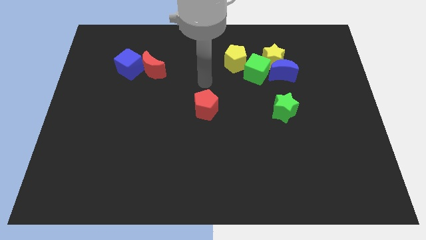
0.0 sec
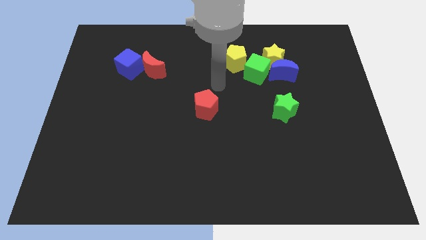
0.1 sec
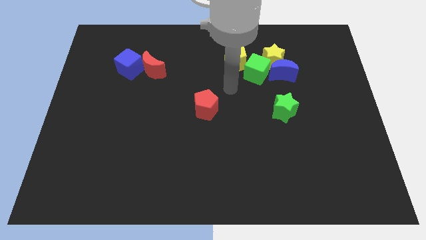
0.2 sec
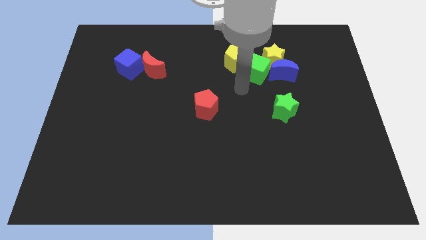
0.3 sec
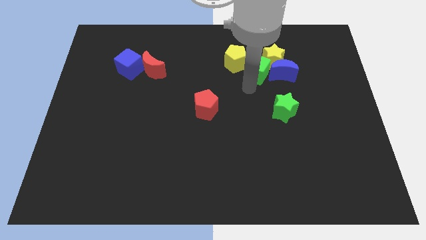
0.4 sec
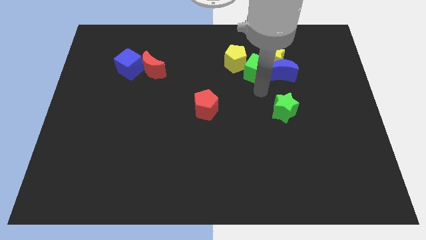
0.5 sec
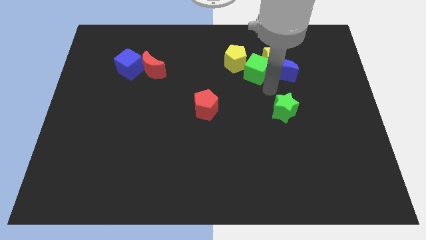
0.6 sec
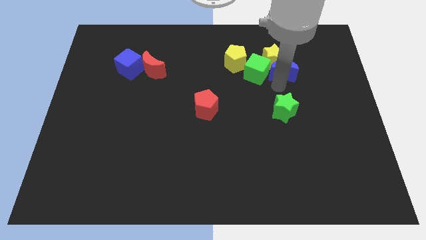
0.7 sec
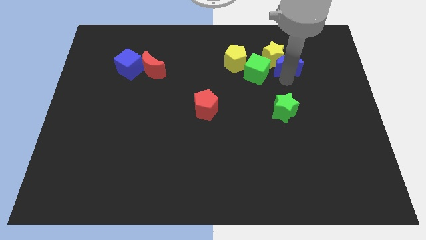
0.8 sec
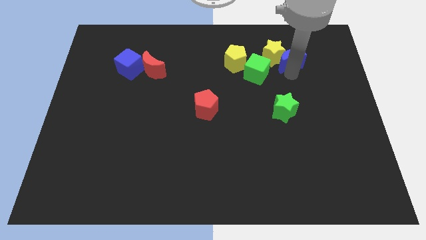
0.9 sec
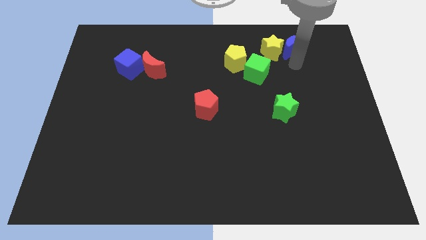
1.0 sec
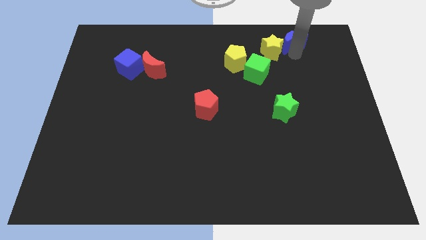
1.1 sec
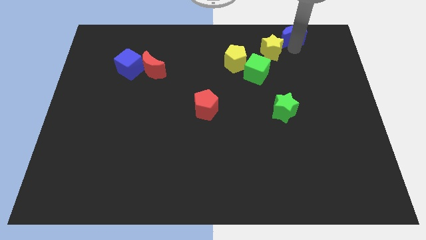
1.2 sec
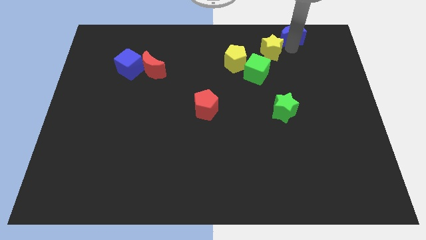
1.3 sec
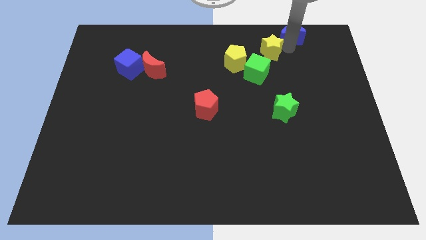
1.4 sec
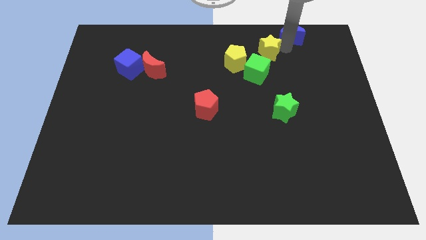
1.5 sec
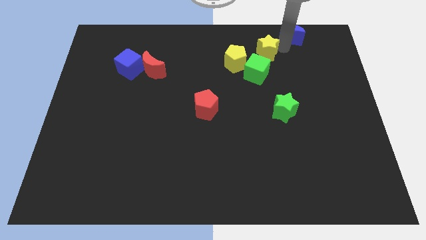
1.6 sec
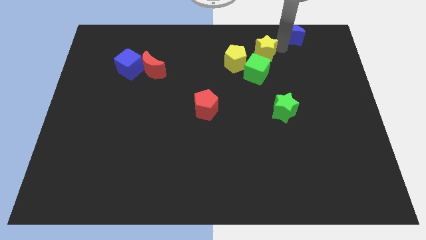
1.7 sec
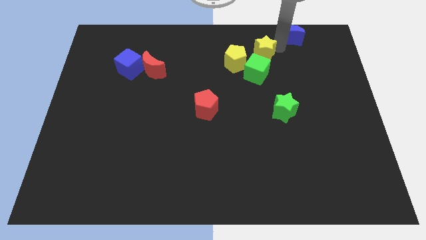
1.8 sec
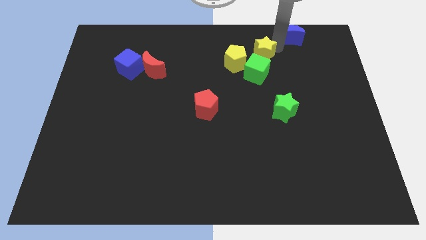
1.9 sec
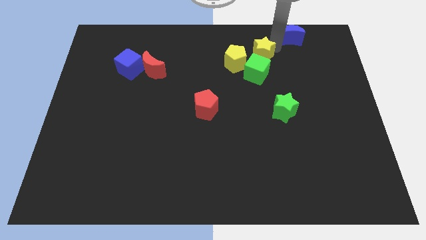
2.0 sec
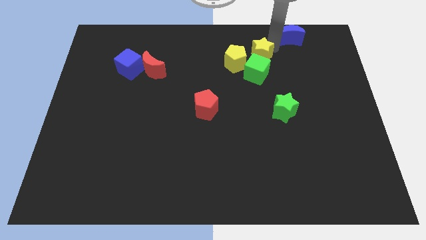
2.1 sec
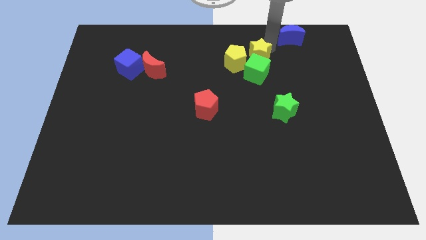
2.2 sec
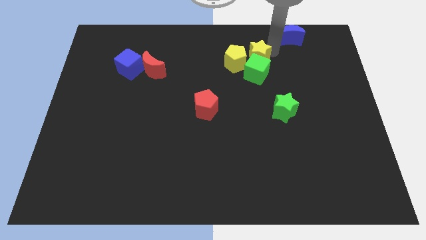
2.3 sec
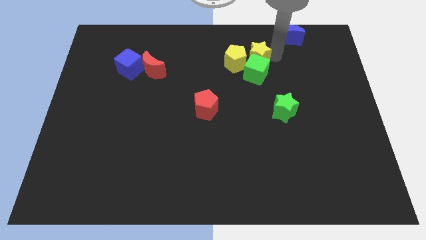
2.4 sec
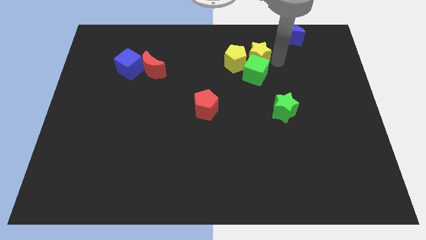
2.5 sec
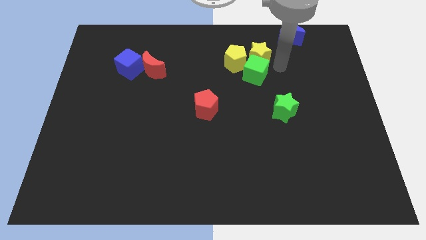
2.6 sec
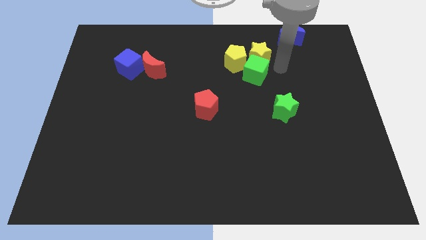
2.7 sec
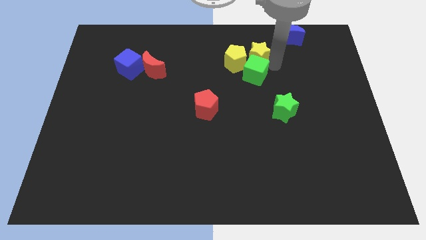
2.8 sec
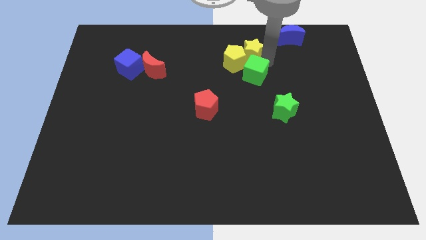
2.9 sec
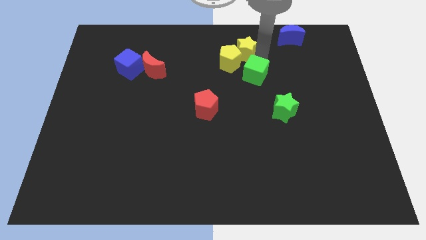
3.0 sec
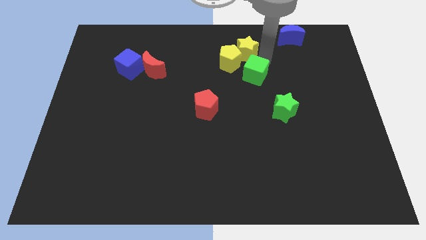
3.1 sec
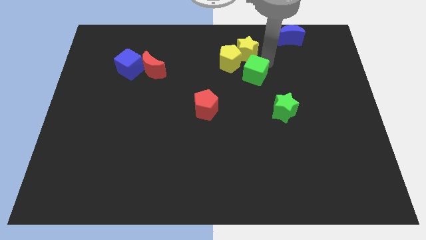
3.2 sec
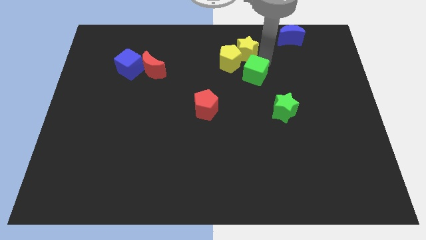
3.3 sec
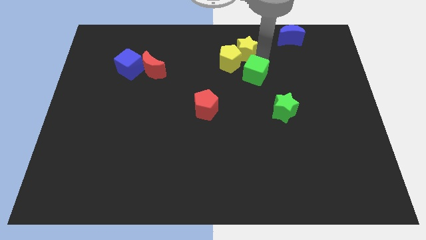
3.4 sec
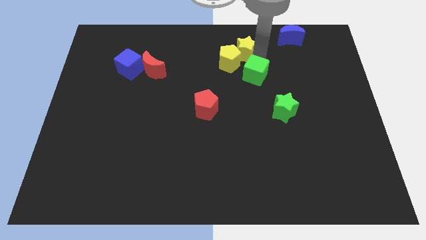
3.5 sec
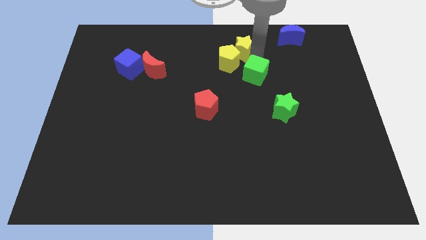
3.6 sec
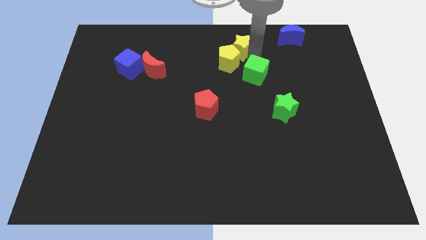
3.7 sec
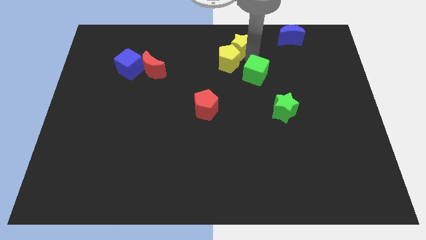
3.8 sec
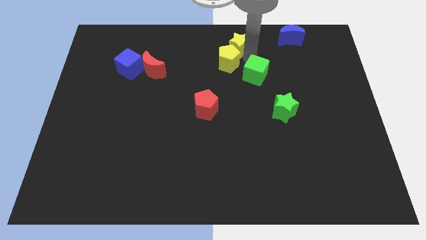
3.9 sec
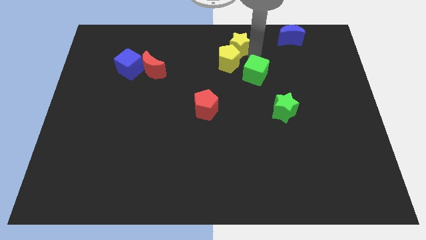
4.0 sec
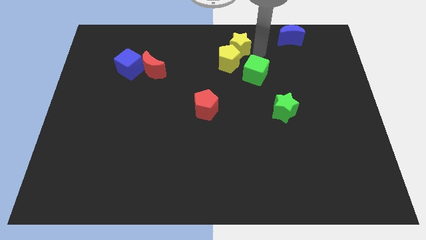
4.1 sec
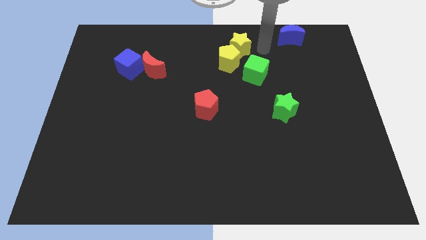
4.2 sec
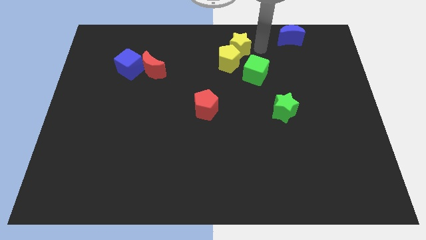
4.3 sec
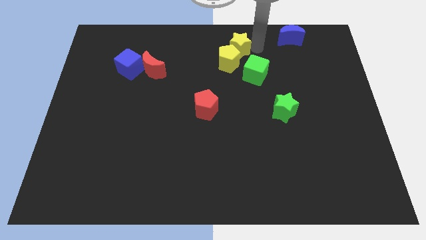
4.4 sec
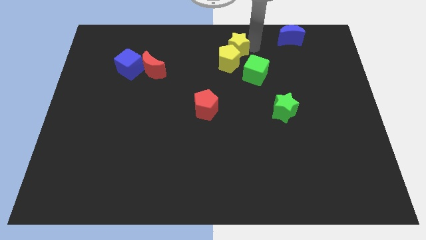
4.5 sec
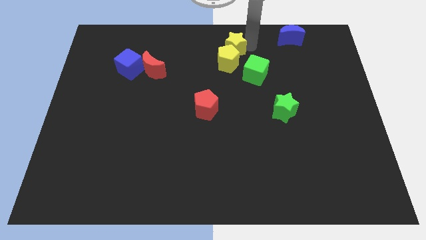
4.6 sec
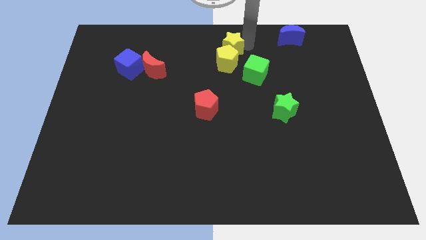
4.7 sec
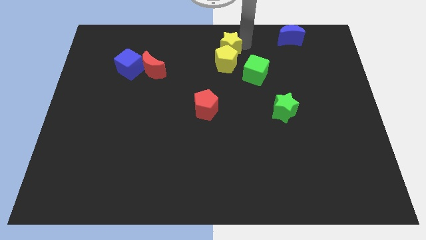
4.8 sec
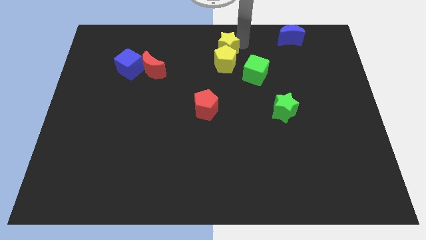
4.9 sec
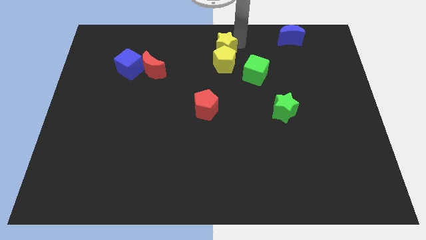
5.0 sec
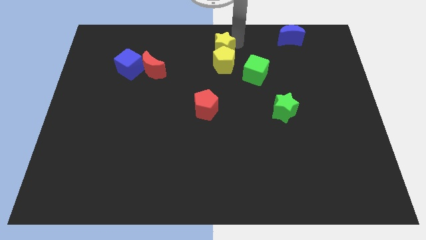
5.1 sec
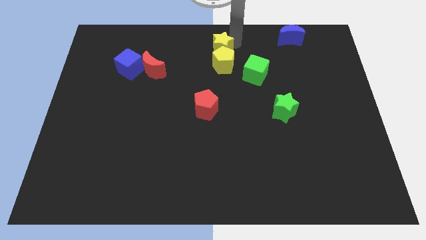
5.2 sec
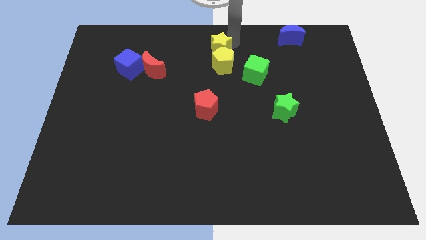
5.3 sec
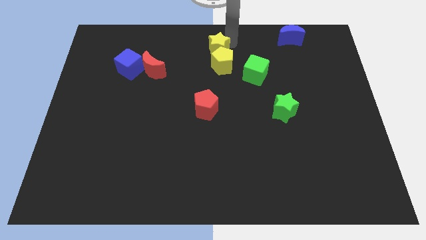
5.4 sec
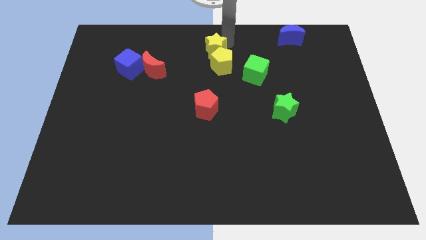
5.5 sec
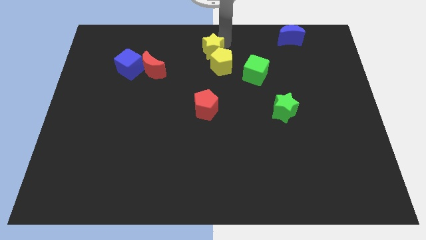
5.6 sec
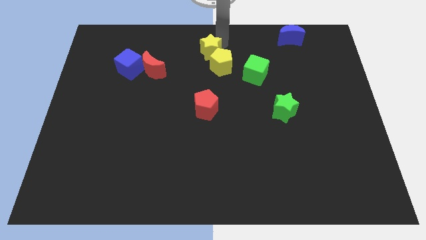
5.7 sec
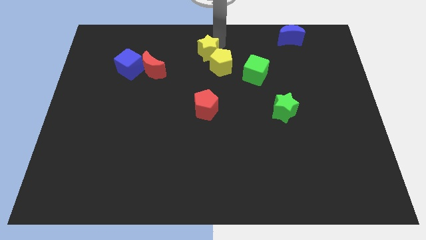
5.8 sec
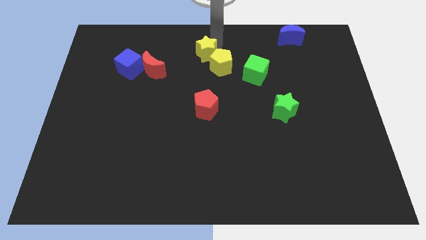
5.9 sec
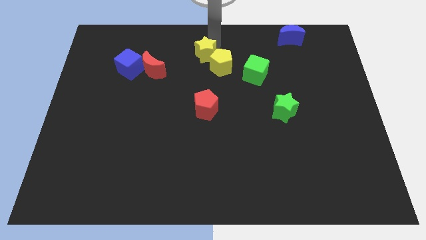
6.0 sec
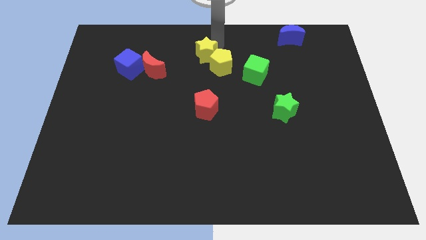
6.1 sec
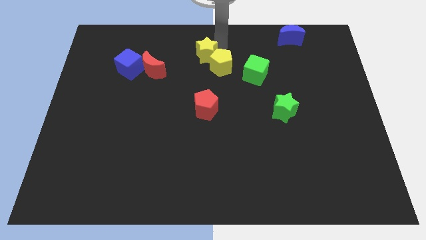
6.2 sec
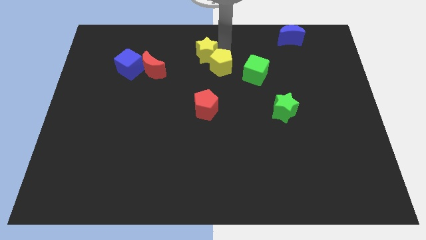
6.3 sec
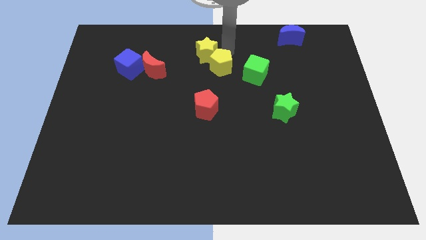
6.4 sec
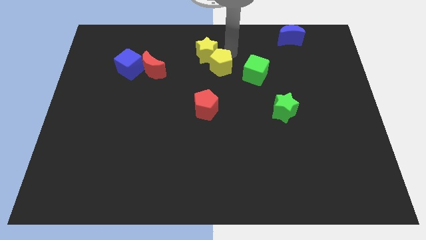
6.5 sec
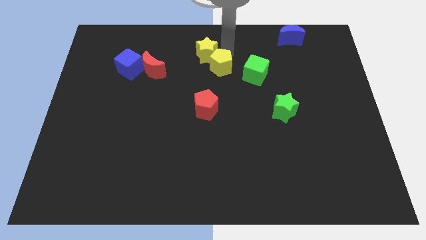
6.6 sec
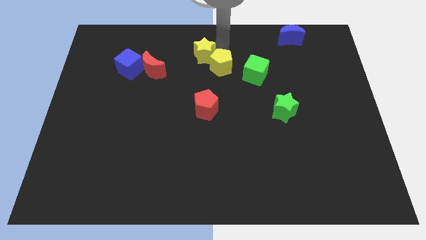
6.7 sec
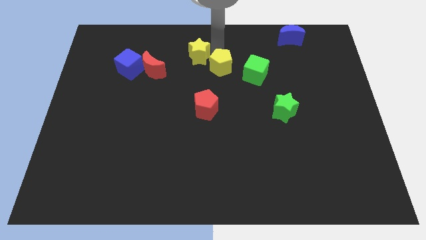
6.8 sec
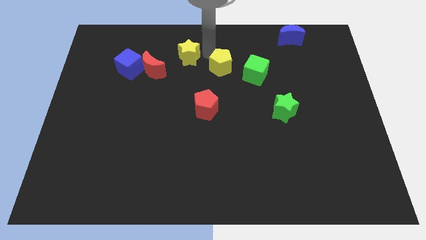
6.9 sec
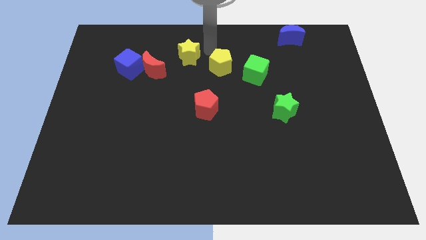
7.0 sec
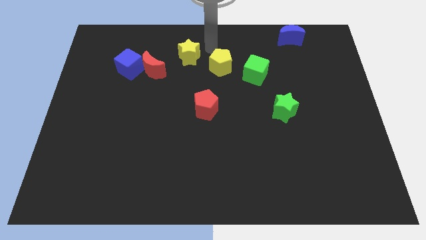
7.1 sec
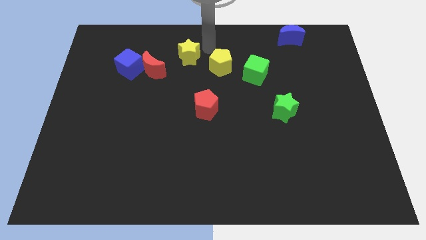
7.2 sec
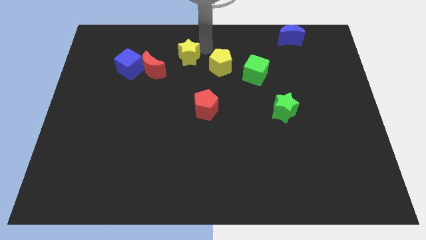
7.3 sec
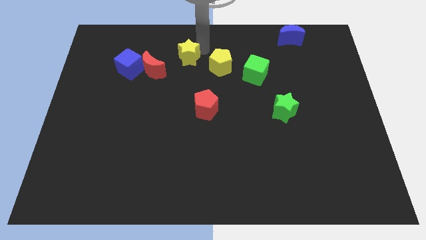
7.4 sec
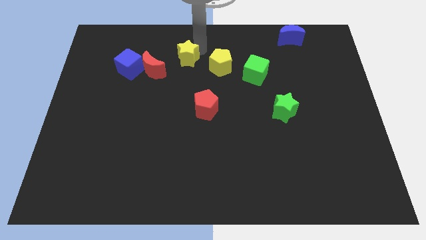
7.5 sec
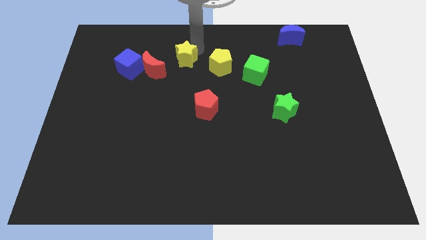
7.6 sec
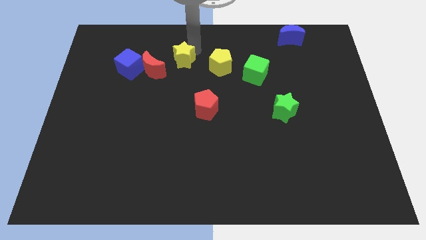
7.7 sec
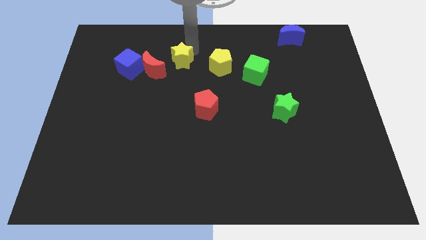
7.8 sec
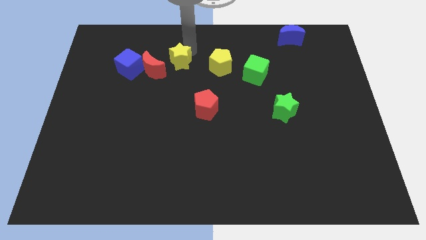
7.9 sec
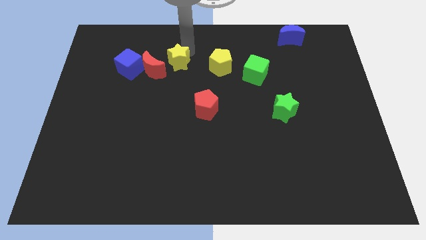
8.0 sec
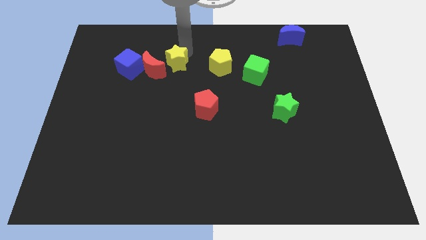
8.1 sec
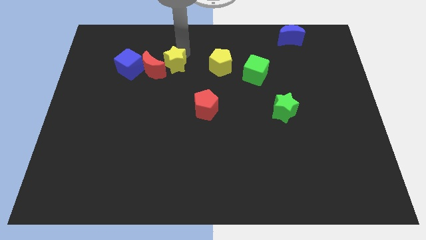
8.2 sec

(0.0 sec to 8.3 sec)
push the yellow star next to the red moon
